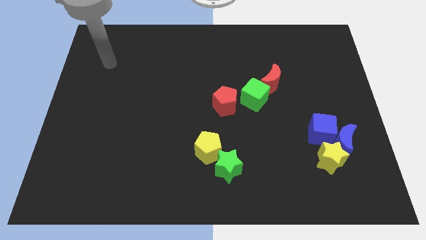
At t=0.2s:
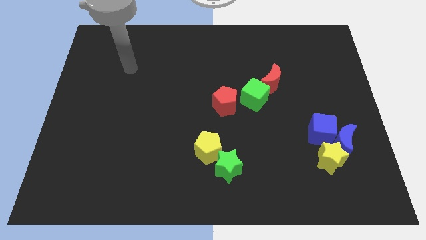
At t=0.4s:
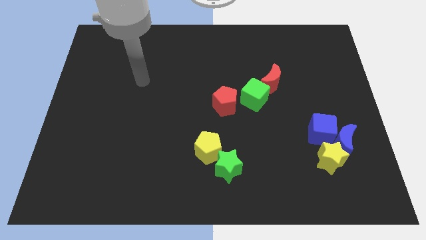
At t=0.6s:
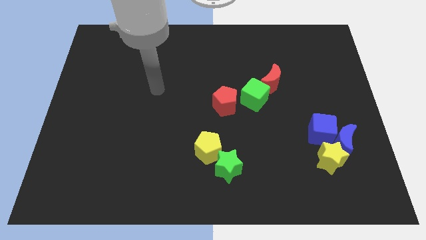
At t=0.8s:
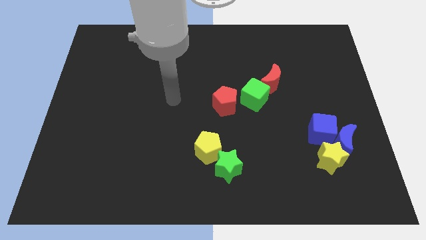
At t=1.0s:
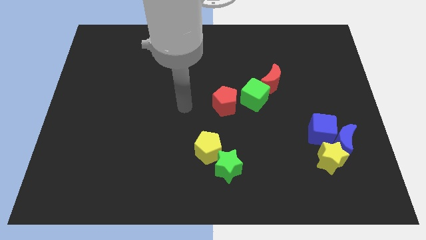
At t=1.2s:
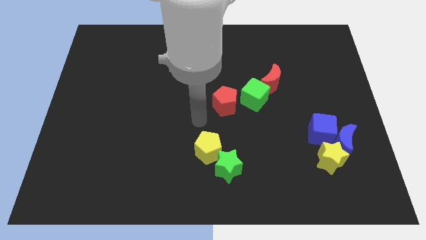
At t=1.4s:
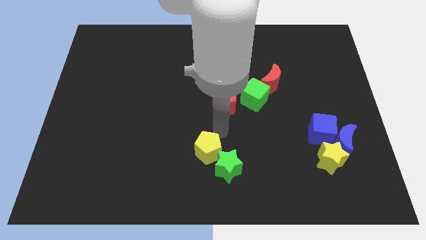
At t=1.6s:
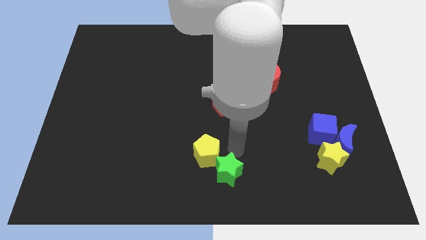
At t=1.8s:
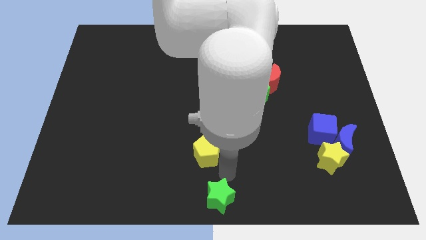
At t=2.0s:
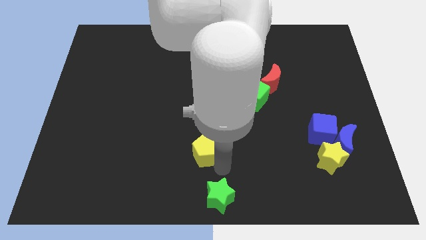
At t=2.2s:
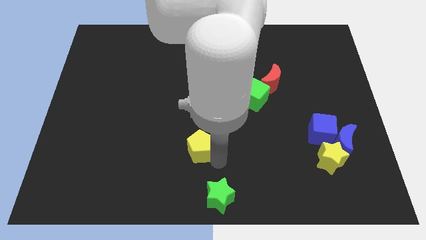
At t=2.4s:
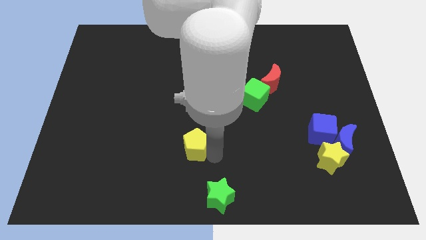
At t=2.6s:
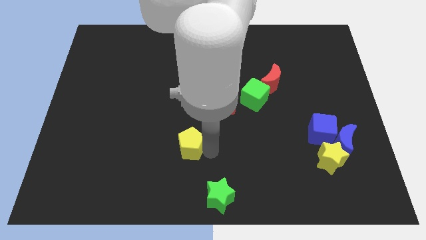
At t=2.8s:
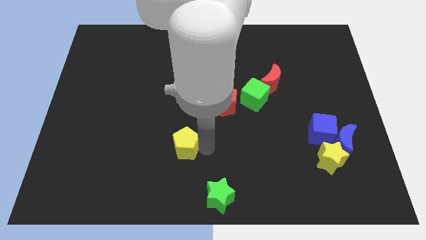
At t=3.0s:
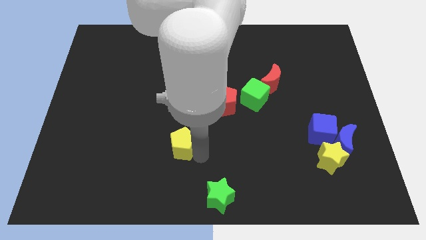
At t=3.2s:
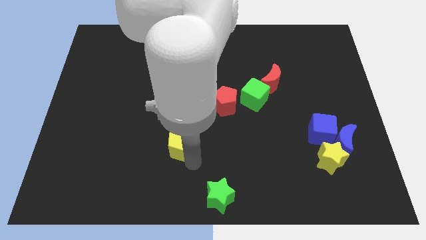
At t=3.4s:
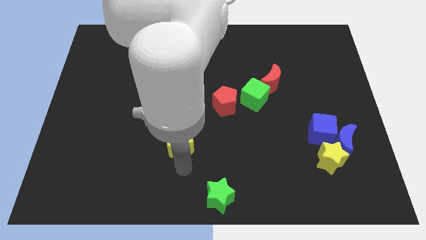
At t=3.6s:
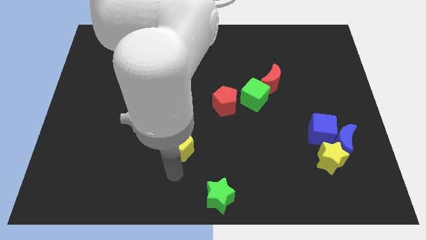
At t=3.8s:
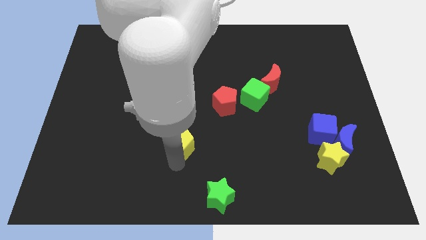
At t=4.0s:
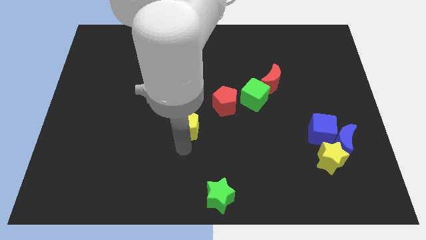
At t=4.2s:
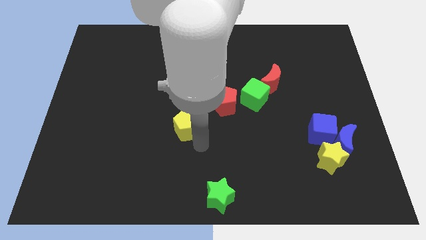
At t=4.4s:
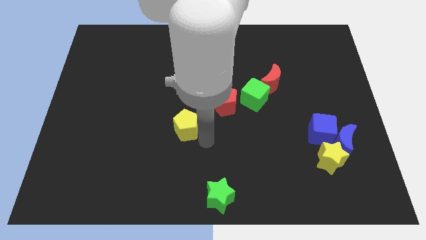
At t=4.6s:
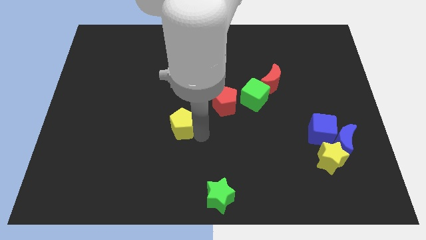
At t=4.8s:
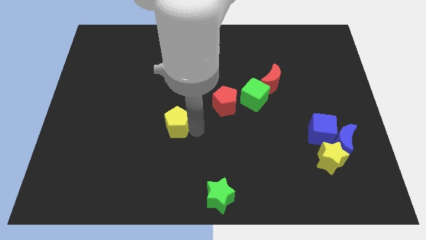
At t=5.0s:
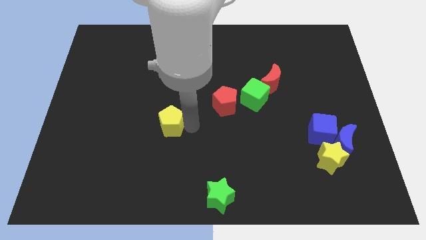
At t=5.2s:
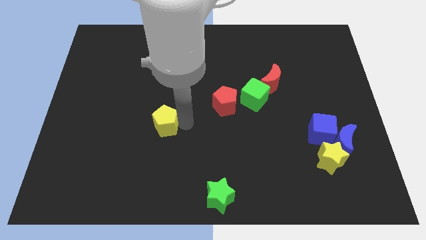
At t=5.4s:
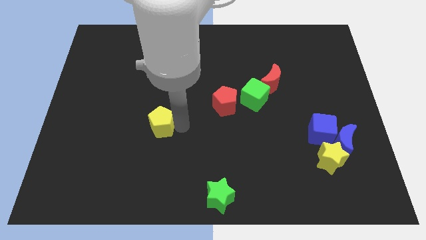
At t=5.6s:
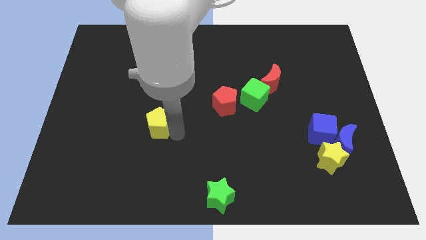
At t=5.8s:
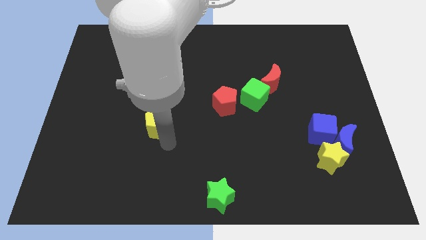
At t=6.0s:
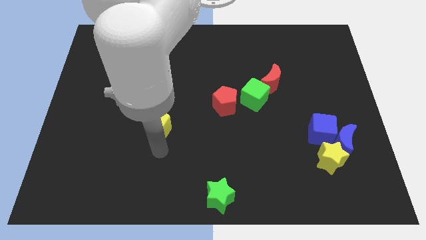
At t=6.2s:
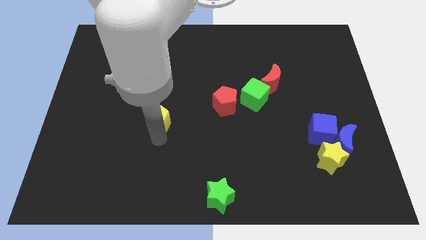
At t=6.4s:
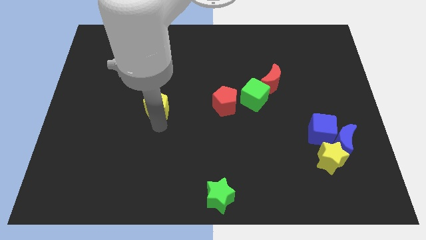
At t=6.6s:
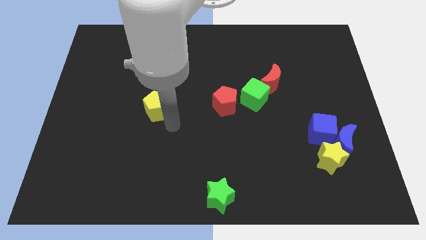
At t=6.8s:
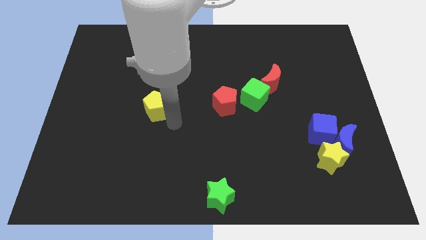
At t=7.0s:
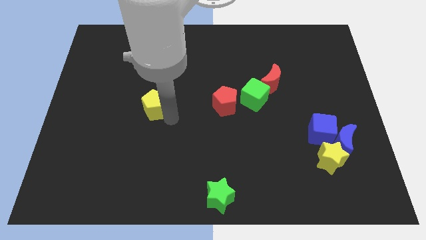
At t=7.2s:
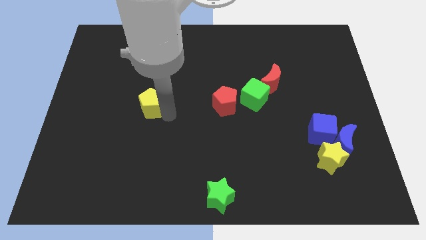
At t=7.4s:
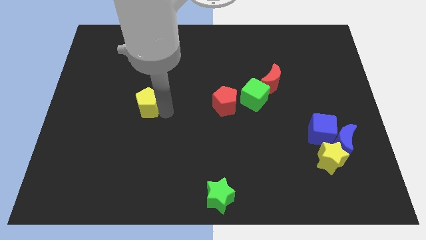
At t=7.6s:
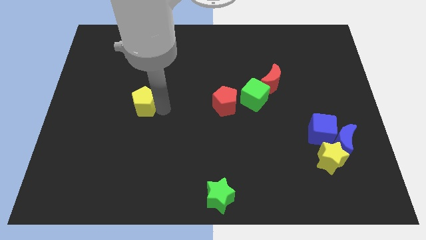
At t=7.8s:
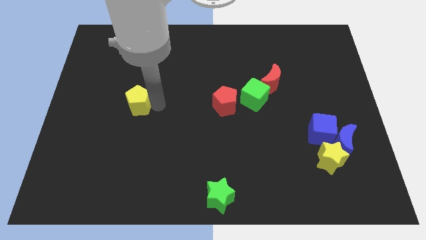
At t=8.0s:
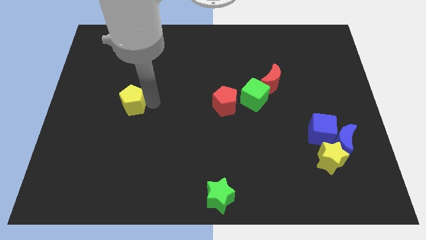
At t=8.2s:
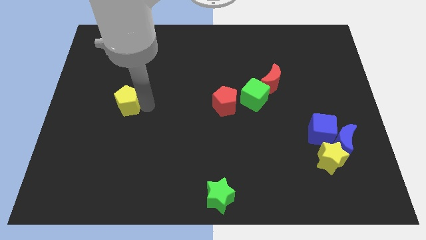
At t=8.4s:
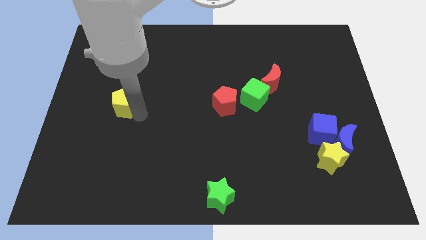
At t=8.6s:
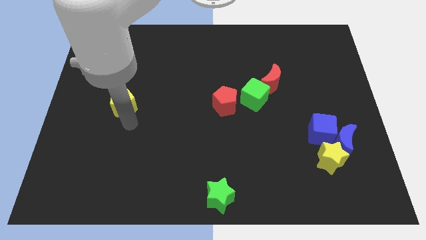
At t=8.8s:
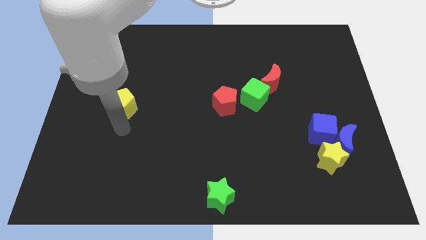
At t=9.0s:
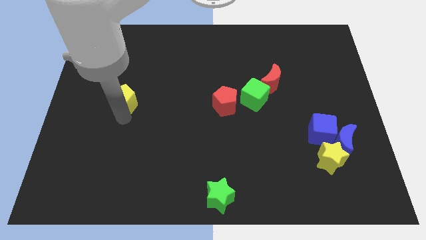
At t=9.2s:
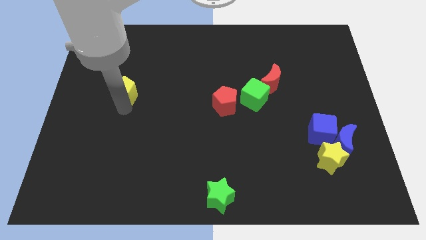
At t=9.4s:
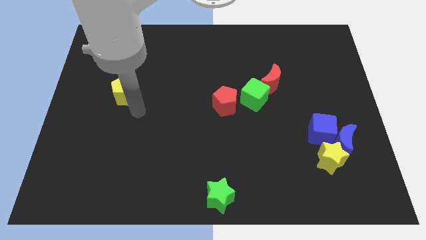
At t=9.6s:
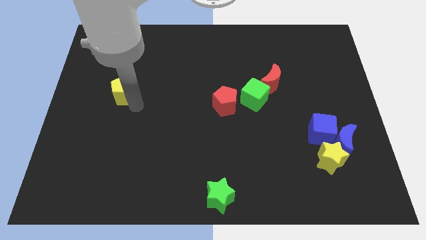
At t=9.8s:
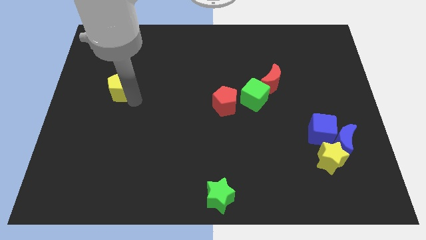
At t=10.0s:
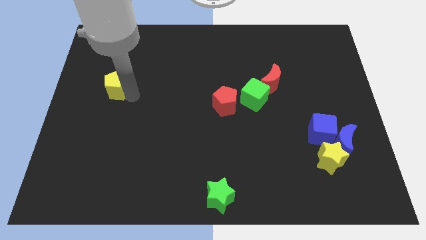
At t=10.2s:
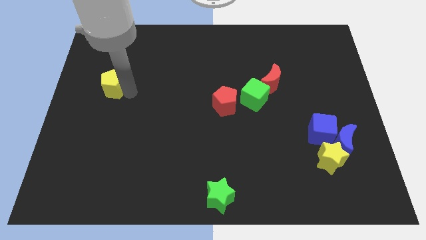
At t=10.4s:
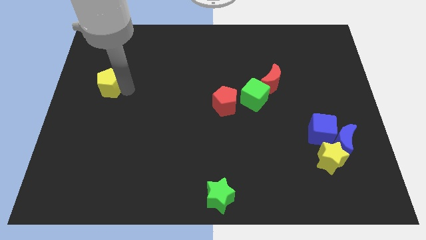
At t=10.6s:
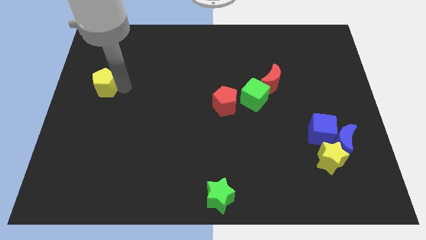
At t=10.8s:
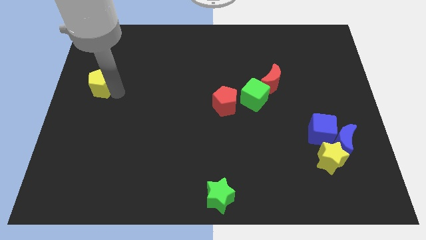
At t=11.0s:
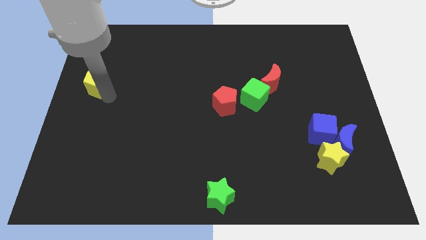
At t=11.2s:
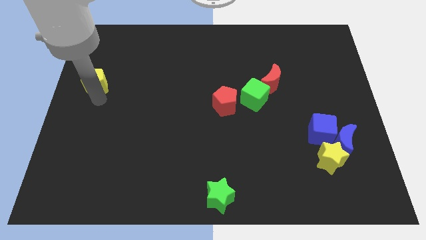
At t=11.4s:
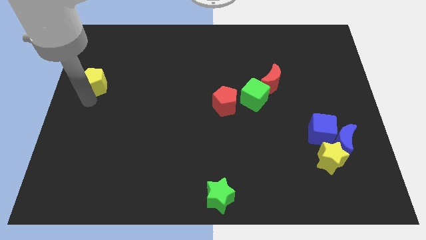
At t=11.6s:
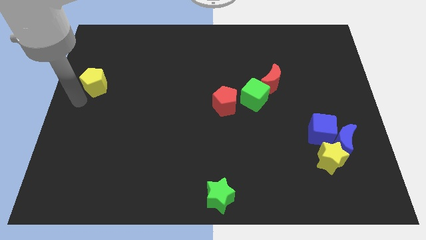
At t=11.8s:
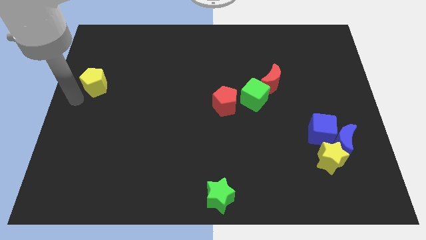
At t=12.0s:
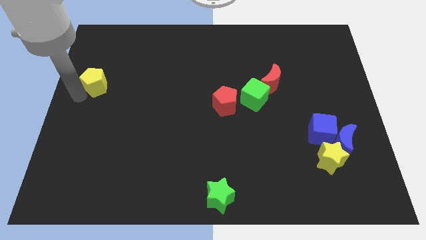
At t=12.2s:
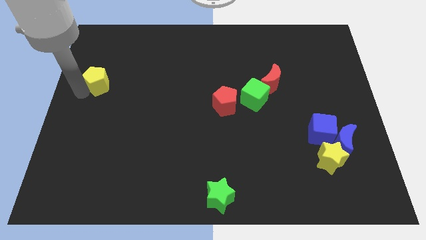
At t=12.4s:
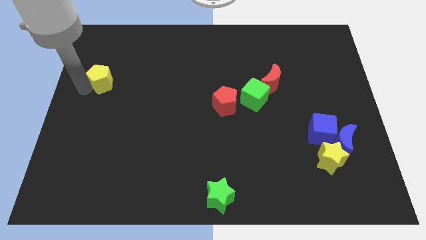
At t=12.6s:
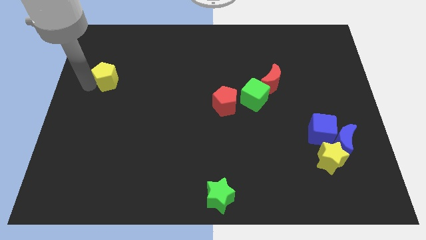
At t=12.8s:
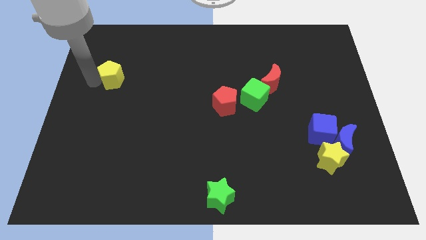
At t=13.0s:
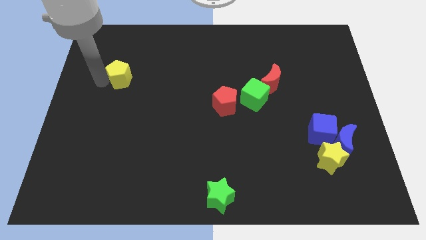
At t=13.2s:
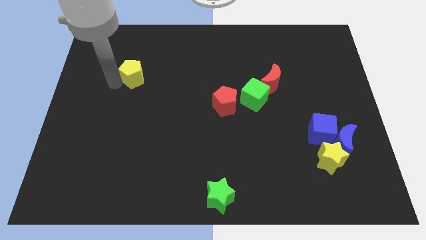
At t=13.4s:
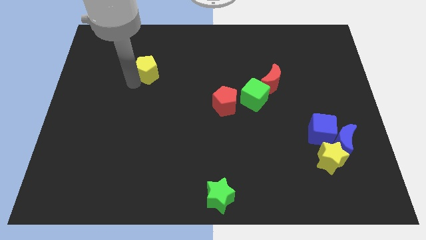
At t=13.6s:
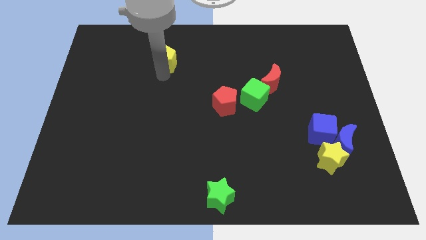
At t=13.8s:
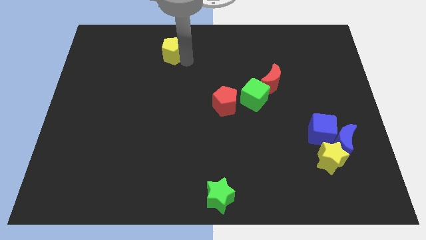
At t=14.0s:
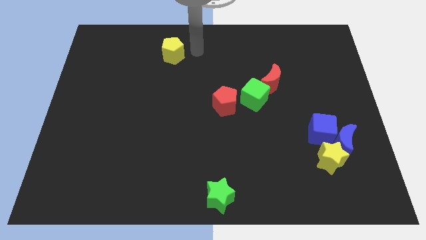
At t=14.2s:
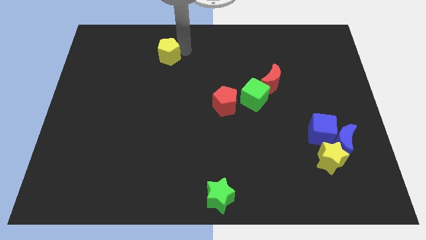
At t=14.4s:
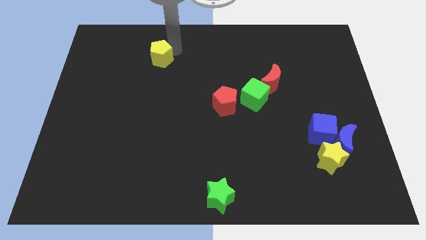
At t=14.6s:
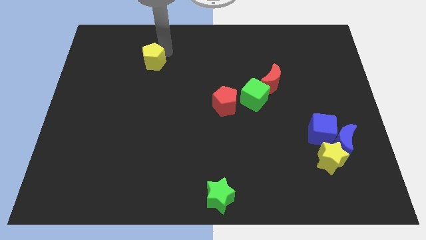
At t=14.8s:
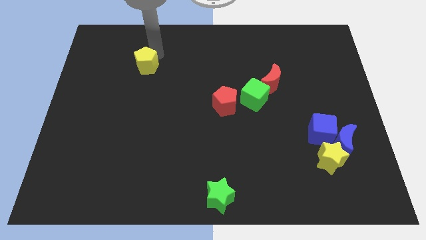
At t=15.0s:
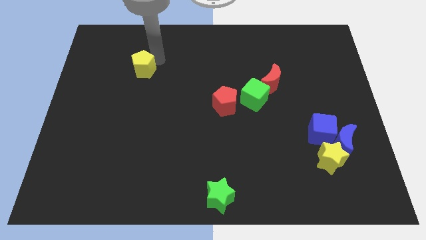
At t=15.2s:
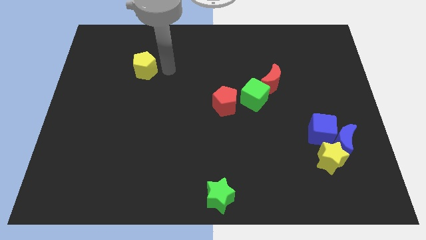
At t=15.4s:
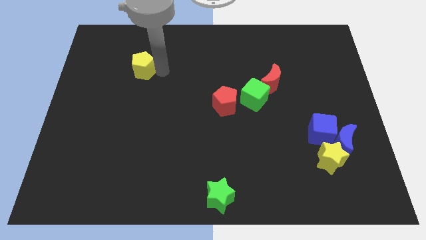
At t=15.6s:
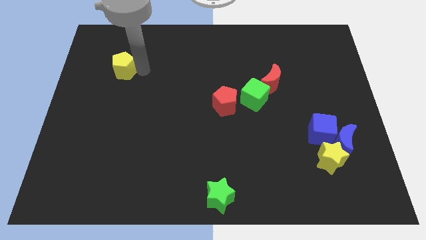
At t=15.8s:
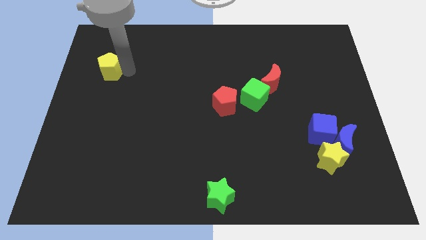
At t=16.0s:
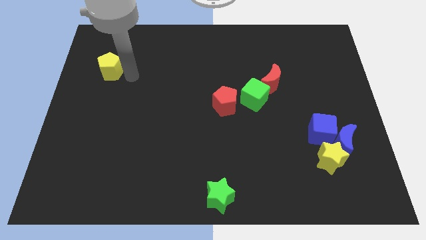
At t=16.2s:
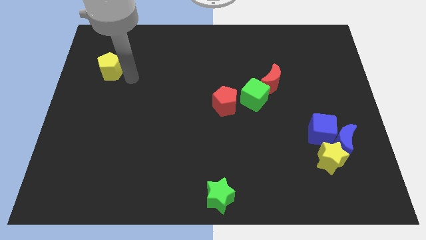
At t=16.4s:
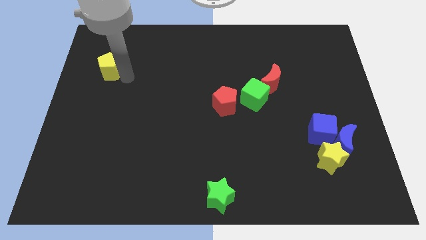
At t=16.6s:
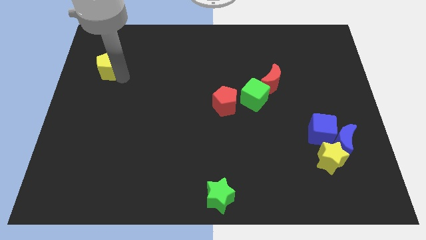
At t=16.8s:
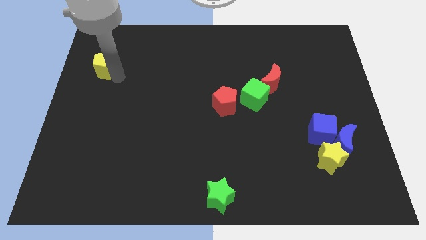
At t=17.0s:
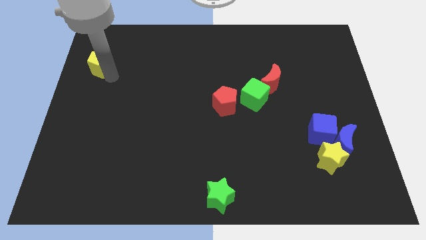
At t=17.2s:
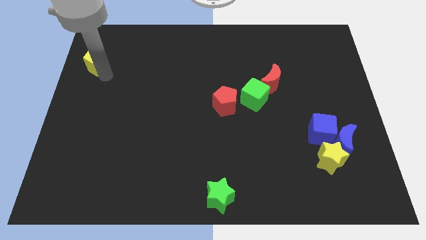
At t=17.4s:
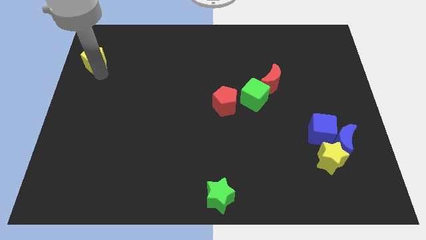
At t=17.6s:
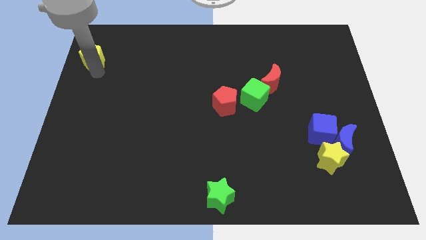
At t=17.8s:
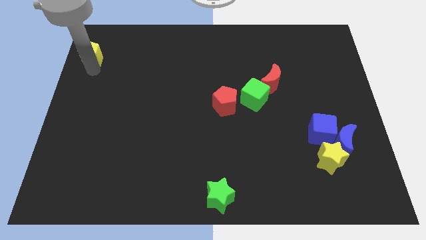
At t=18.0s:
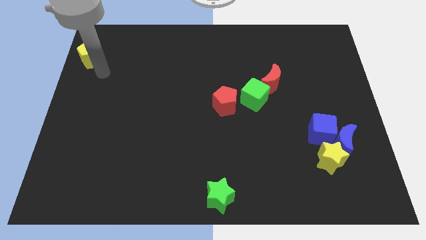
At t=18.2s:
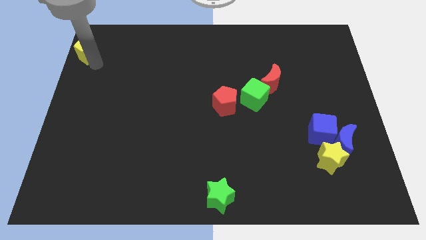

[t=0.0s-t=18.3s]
push the yellow pentagon to the top left
